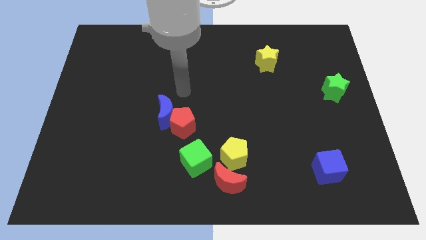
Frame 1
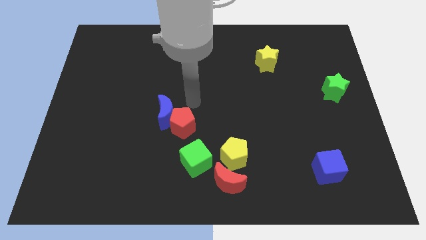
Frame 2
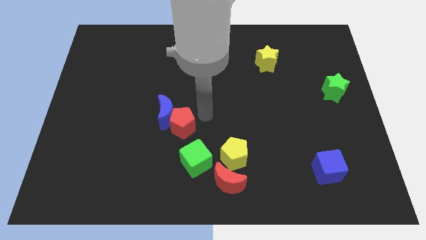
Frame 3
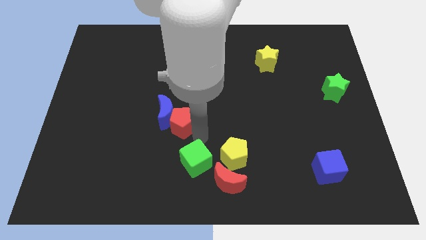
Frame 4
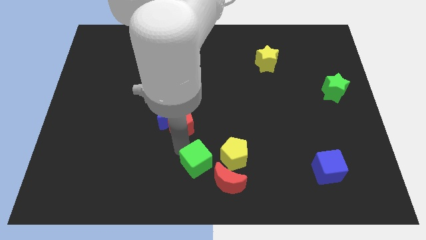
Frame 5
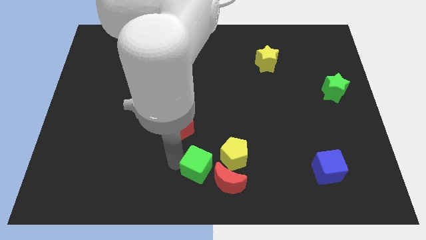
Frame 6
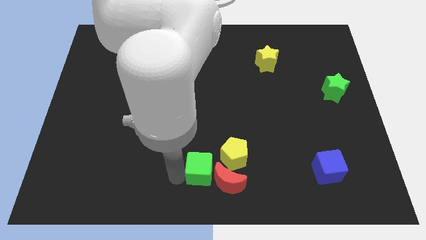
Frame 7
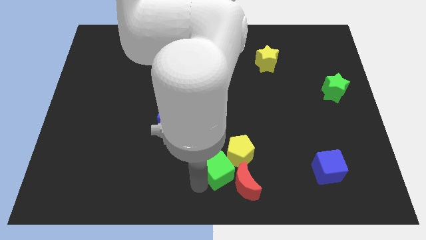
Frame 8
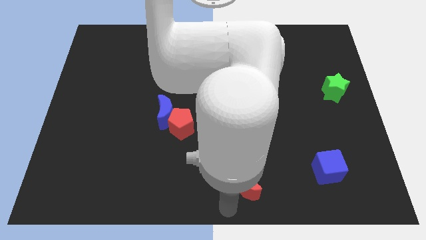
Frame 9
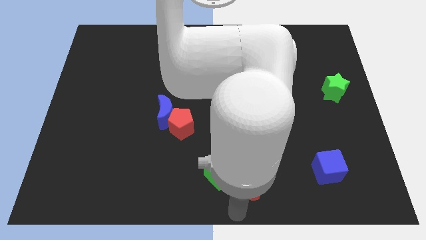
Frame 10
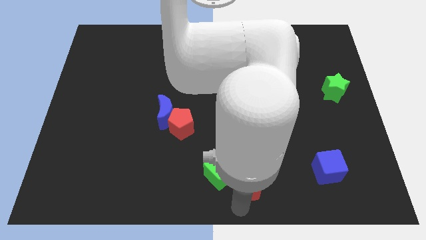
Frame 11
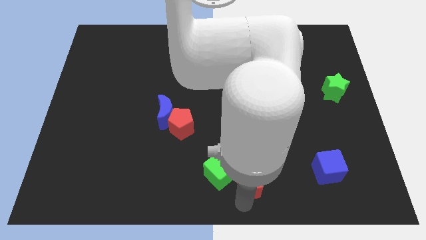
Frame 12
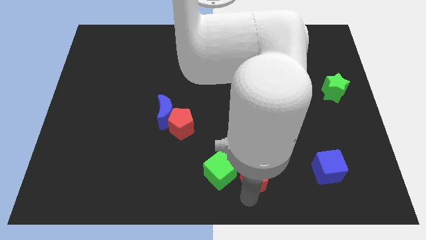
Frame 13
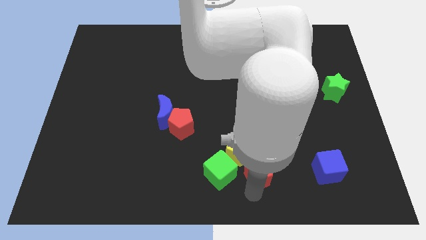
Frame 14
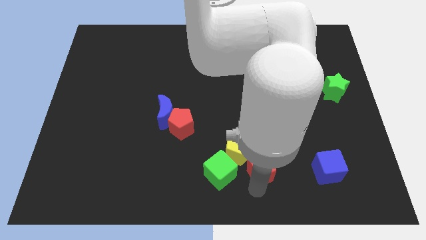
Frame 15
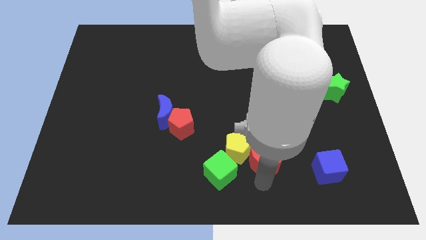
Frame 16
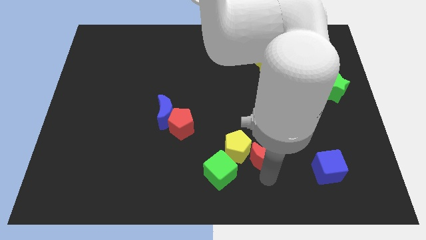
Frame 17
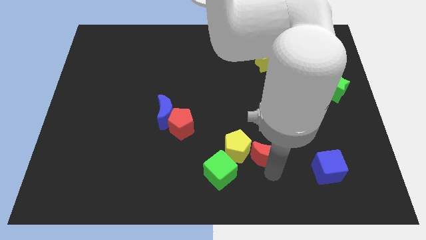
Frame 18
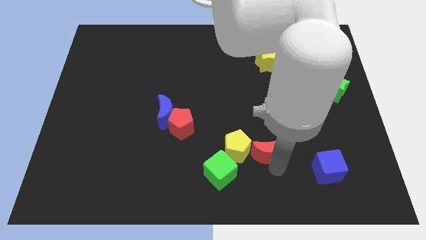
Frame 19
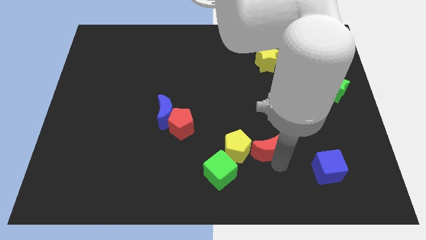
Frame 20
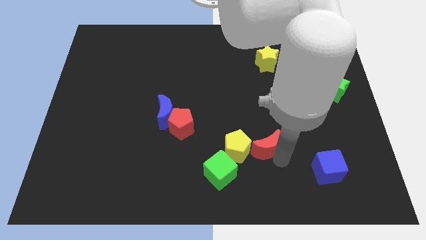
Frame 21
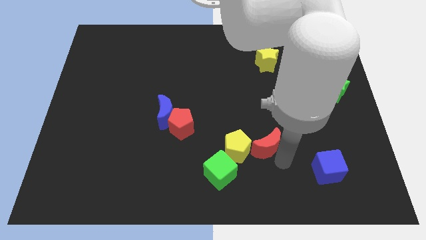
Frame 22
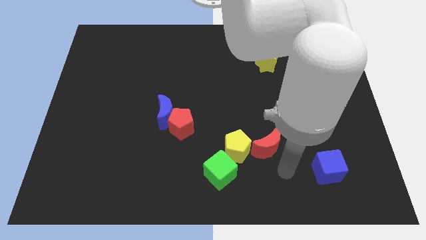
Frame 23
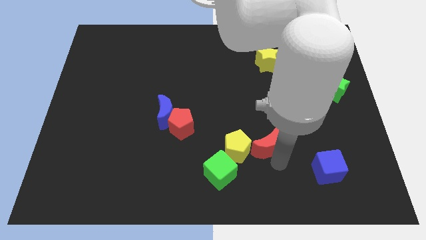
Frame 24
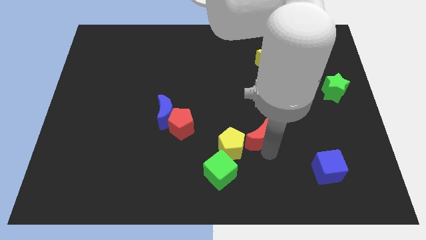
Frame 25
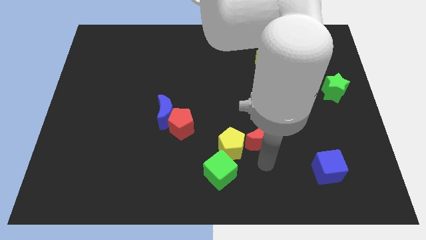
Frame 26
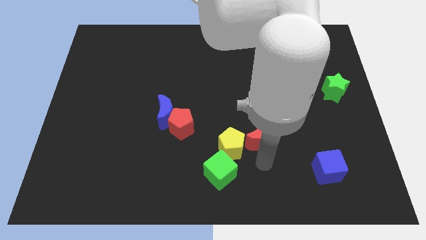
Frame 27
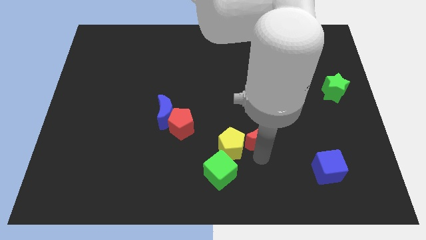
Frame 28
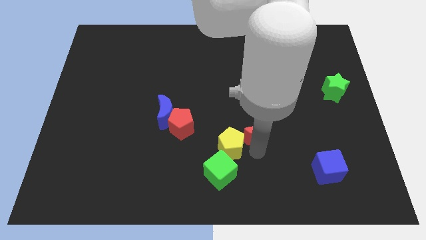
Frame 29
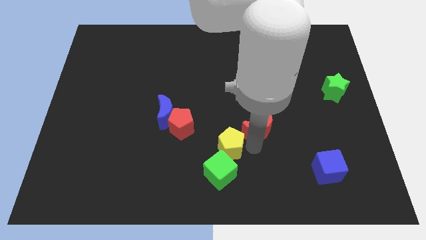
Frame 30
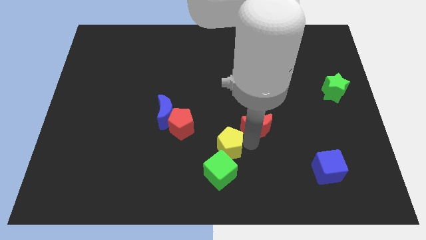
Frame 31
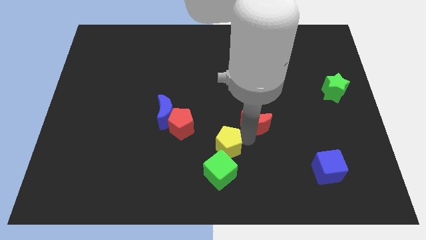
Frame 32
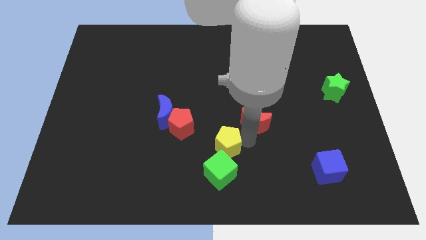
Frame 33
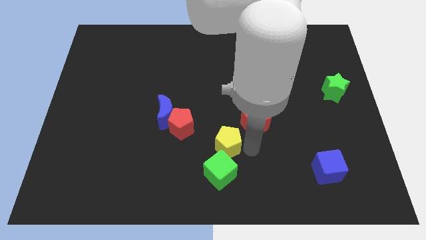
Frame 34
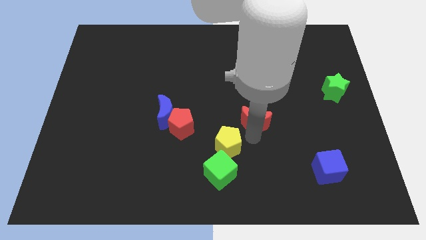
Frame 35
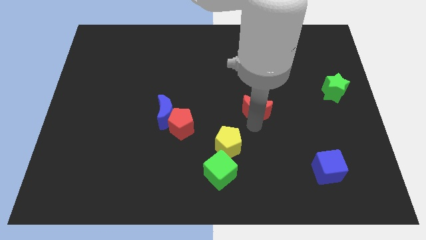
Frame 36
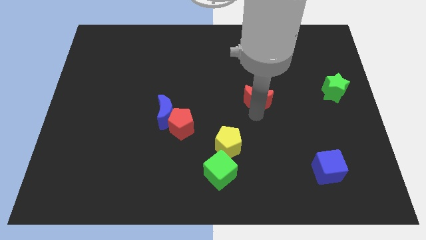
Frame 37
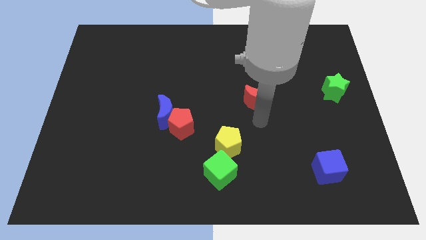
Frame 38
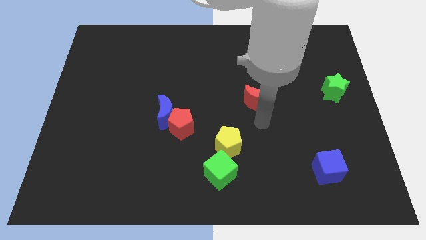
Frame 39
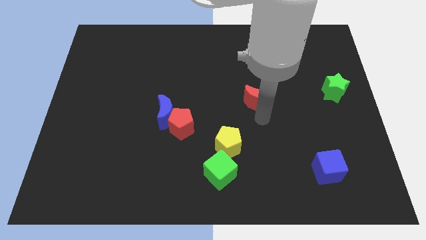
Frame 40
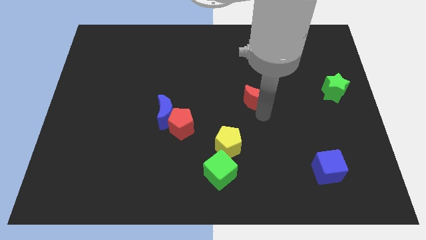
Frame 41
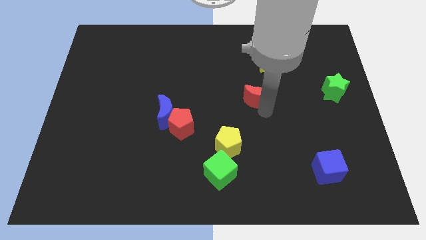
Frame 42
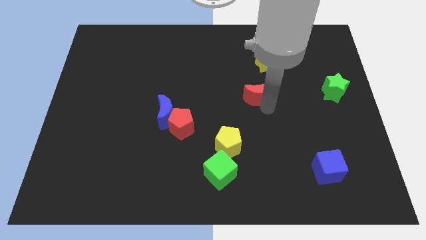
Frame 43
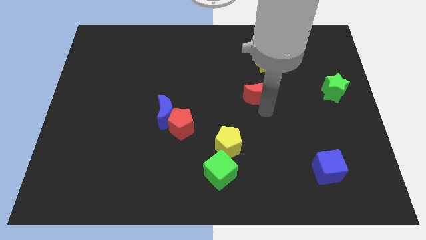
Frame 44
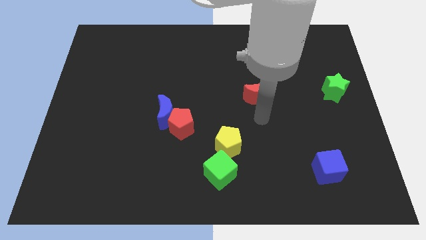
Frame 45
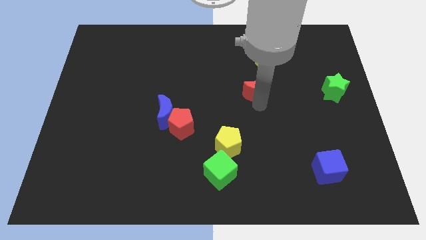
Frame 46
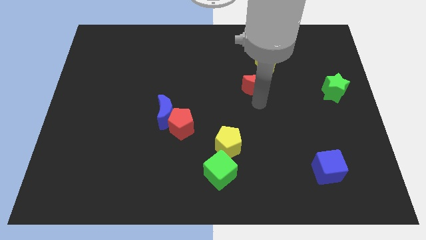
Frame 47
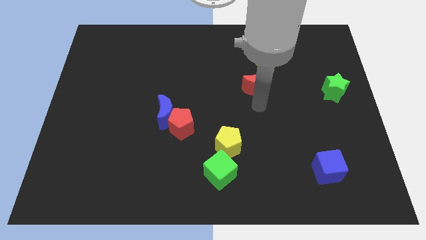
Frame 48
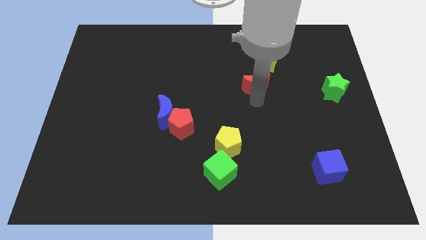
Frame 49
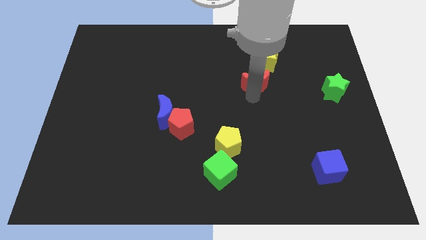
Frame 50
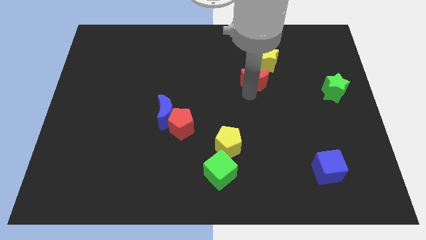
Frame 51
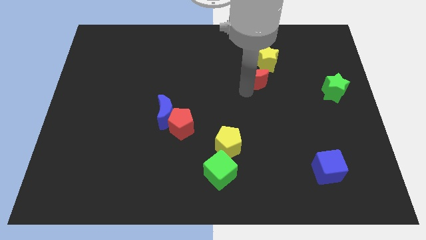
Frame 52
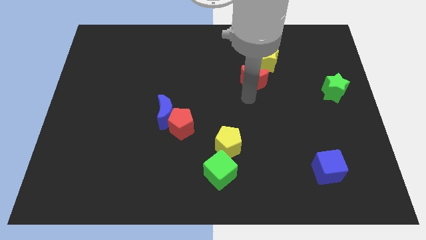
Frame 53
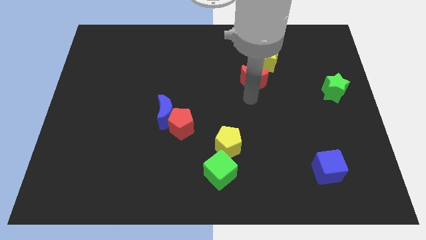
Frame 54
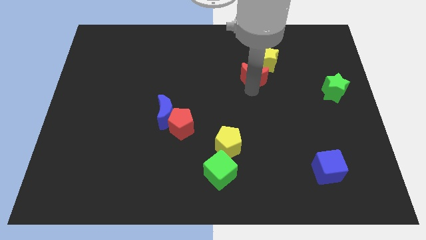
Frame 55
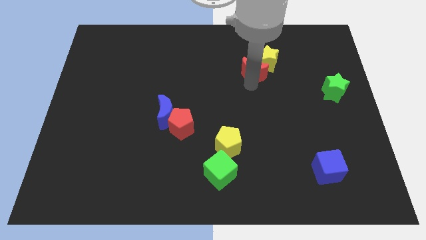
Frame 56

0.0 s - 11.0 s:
move the red moon towards the yellow star

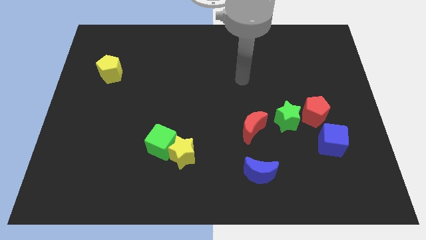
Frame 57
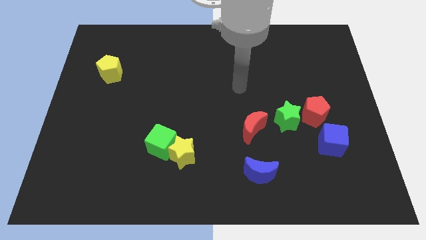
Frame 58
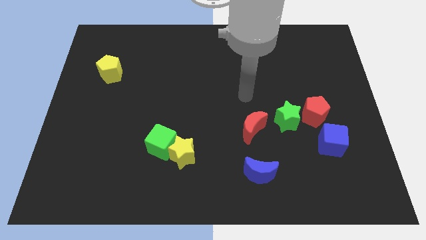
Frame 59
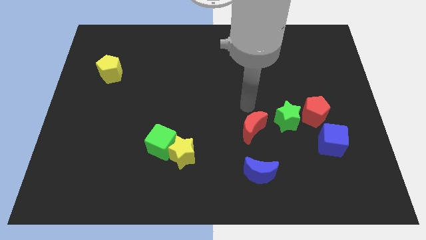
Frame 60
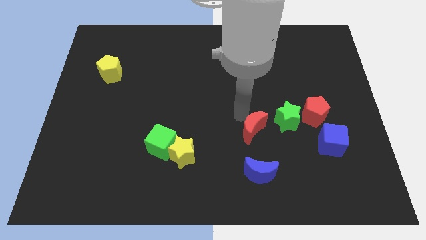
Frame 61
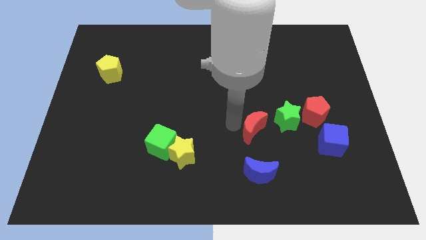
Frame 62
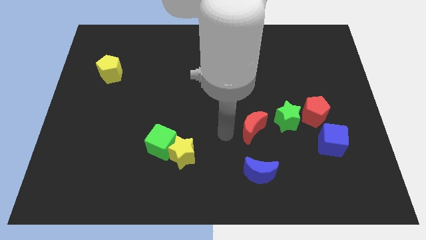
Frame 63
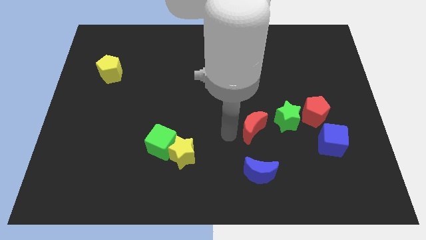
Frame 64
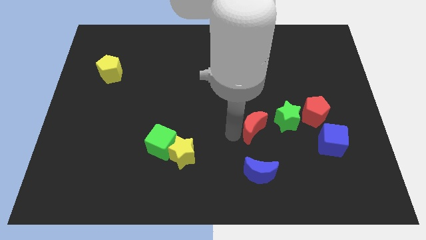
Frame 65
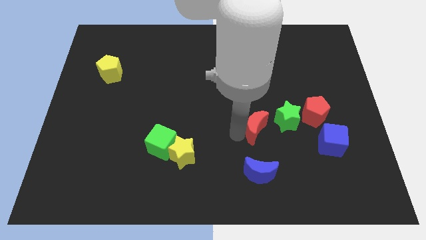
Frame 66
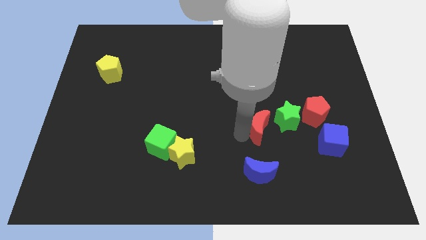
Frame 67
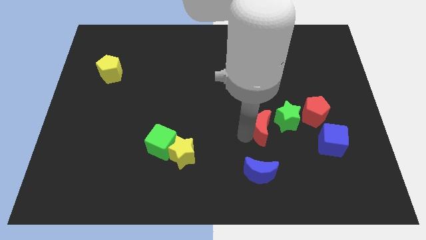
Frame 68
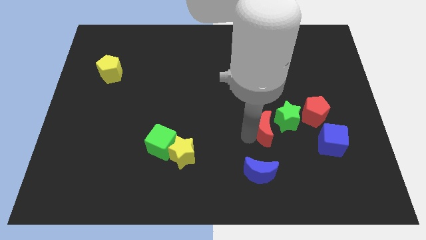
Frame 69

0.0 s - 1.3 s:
push the red moon next to the green star
